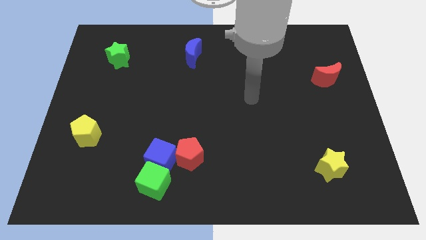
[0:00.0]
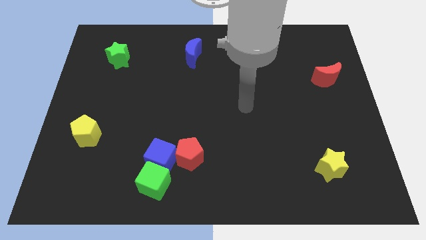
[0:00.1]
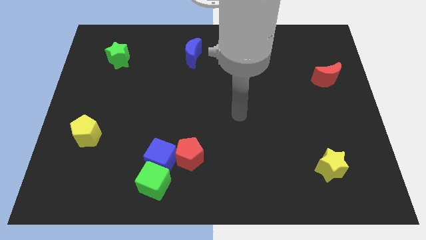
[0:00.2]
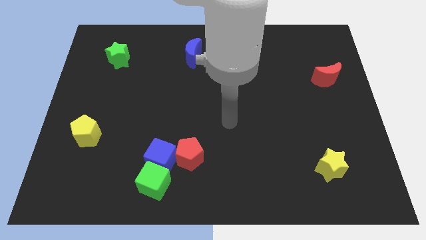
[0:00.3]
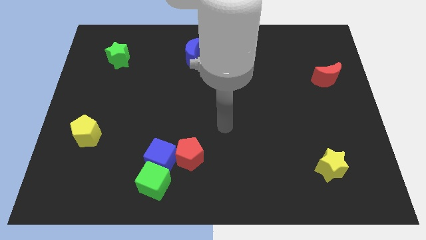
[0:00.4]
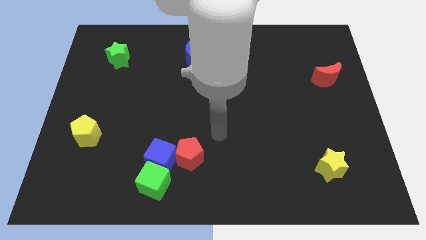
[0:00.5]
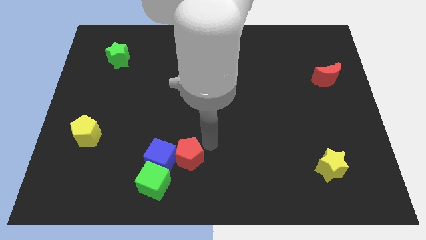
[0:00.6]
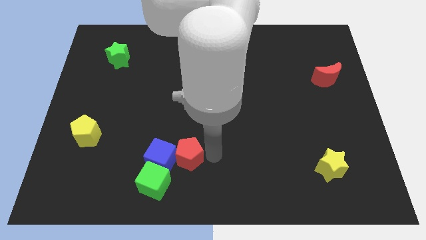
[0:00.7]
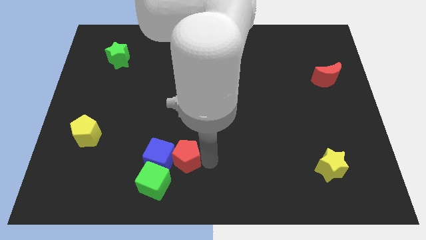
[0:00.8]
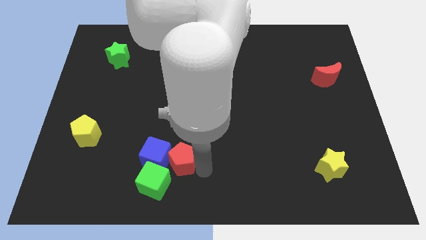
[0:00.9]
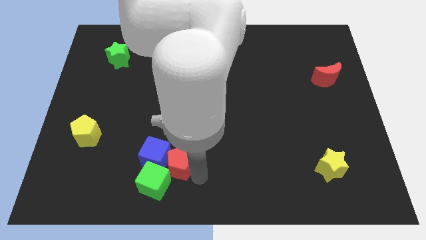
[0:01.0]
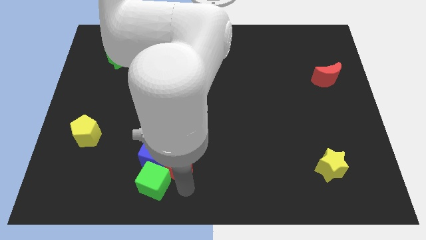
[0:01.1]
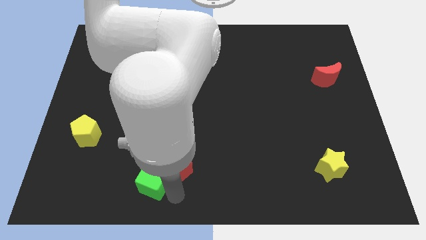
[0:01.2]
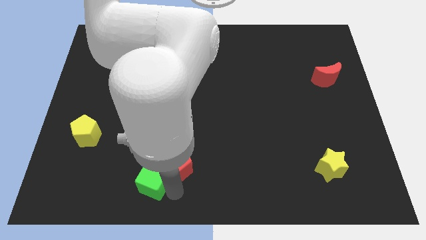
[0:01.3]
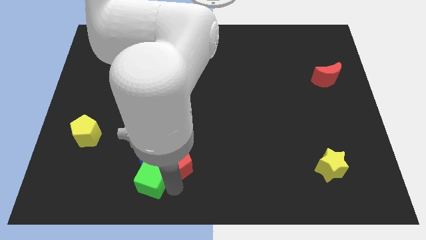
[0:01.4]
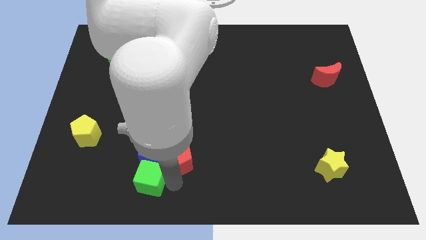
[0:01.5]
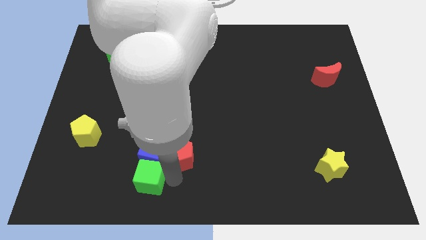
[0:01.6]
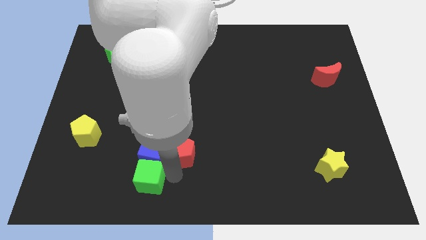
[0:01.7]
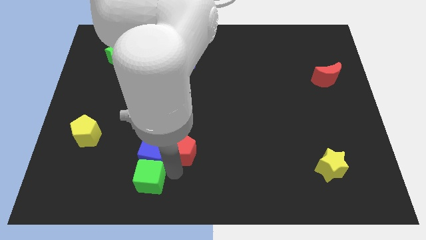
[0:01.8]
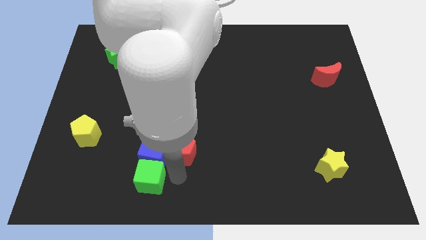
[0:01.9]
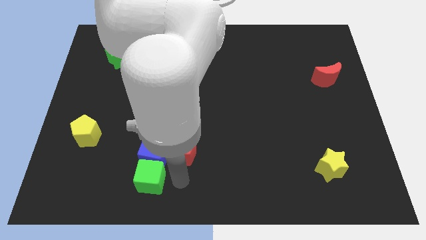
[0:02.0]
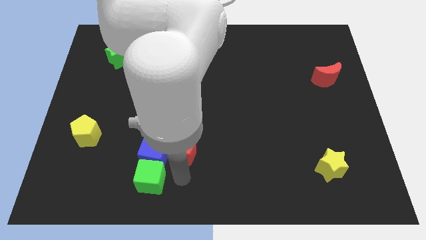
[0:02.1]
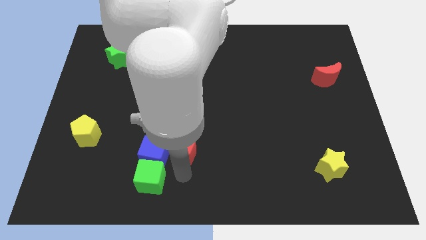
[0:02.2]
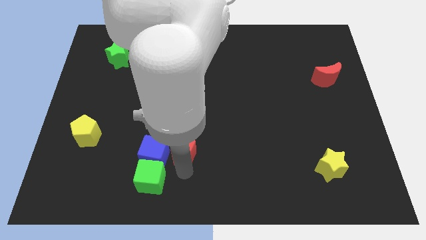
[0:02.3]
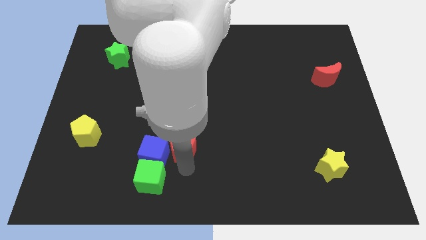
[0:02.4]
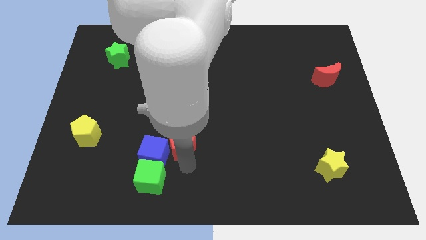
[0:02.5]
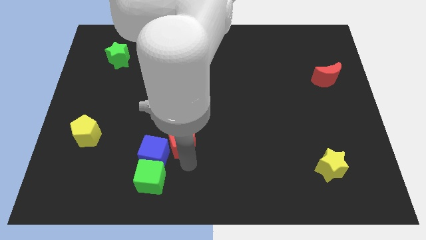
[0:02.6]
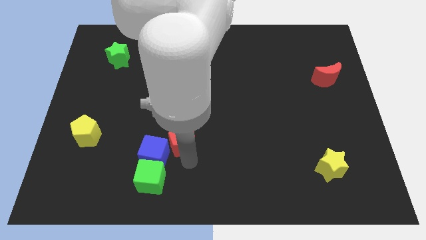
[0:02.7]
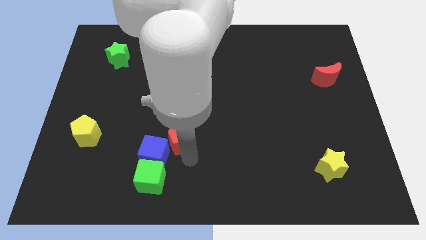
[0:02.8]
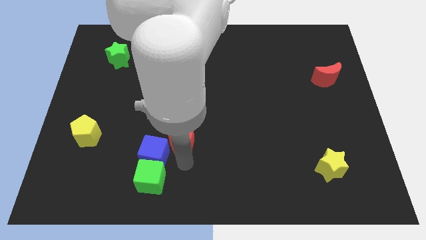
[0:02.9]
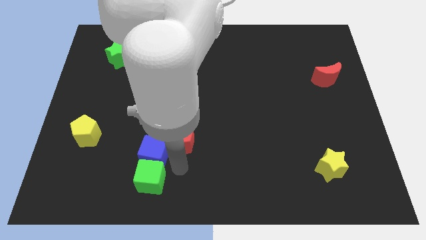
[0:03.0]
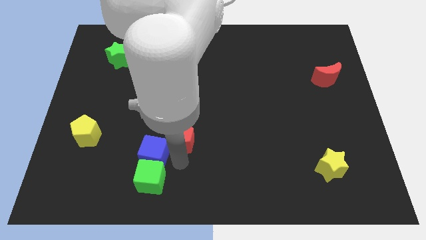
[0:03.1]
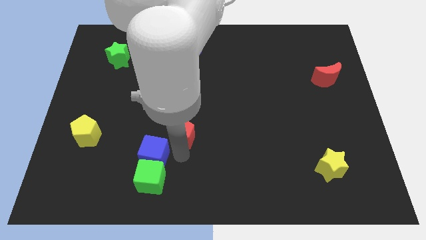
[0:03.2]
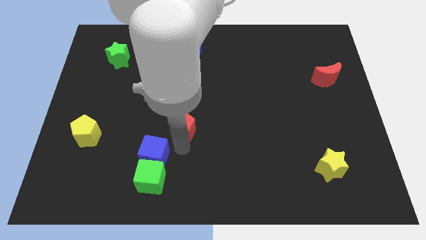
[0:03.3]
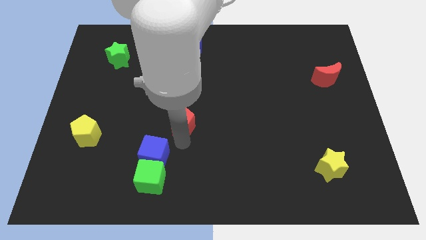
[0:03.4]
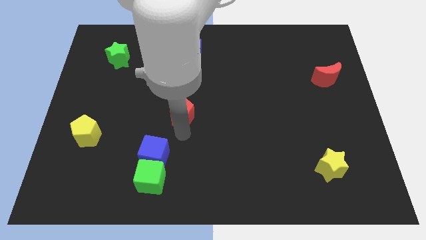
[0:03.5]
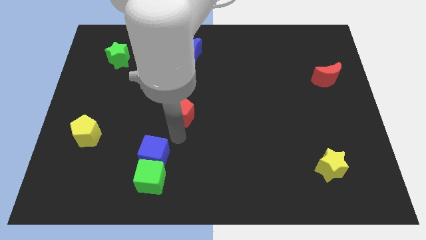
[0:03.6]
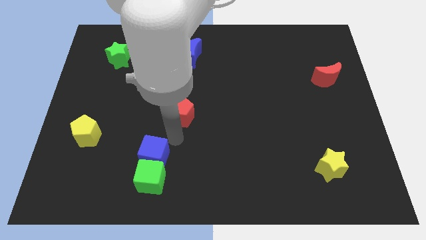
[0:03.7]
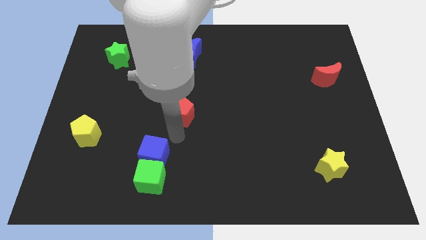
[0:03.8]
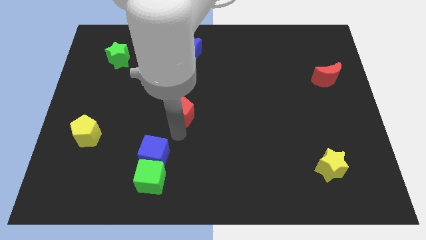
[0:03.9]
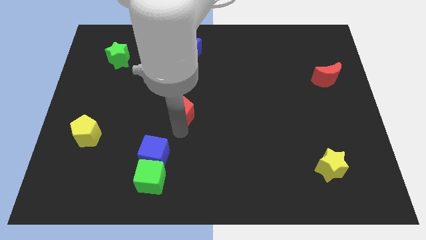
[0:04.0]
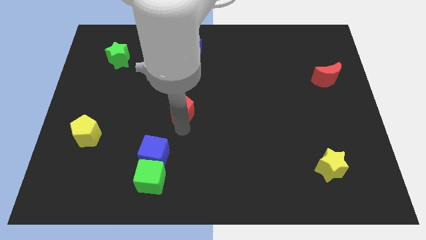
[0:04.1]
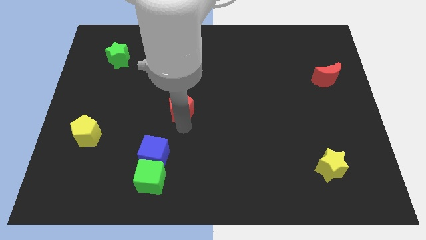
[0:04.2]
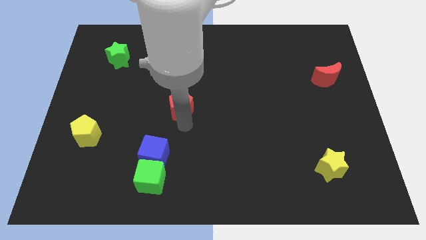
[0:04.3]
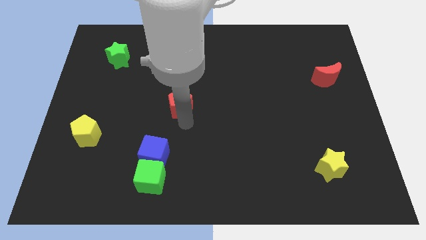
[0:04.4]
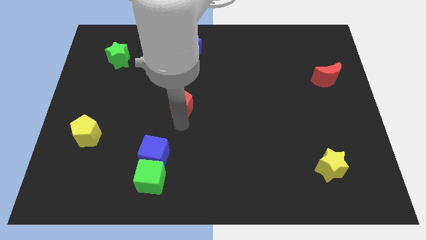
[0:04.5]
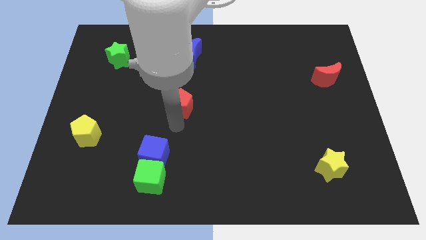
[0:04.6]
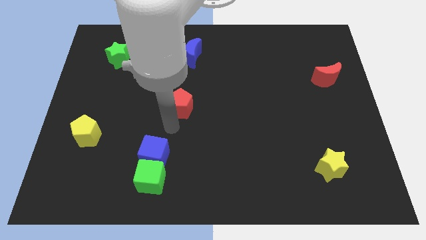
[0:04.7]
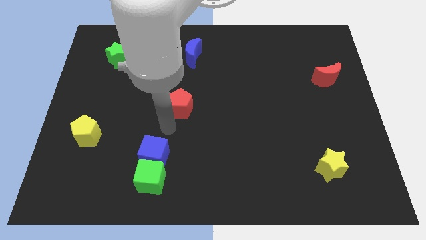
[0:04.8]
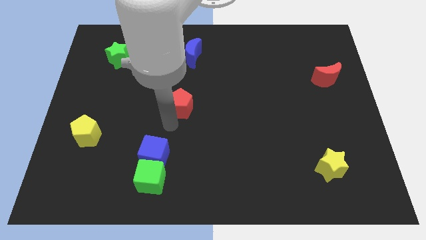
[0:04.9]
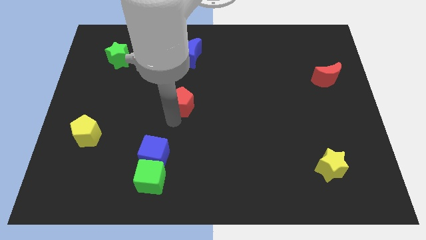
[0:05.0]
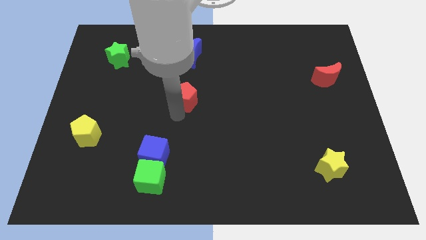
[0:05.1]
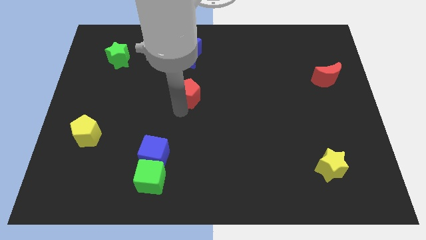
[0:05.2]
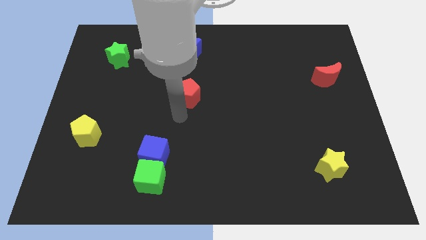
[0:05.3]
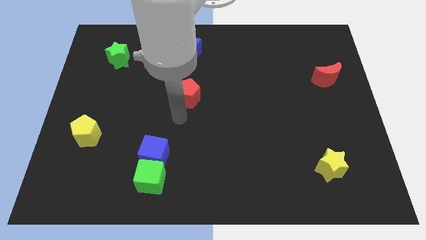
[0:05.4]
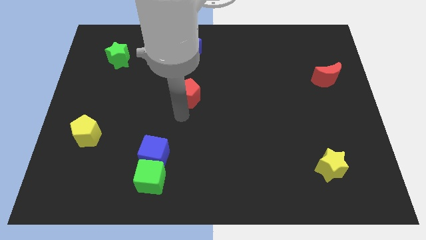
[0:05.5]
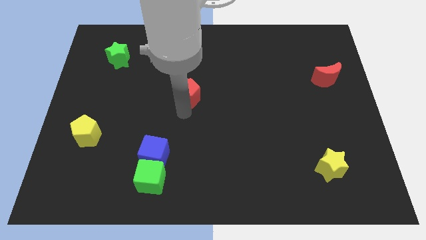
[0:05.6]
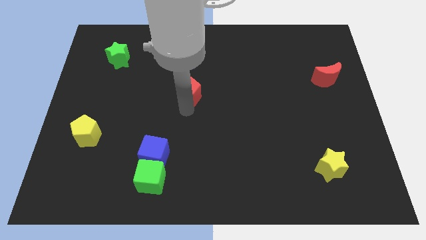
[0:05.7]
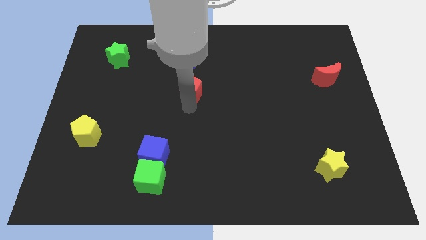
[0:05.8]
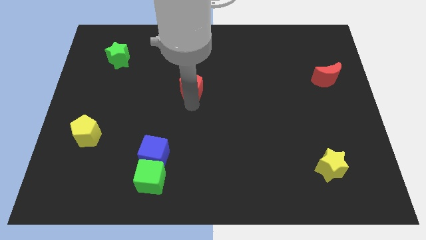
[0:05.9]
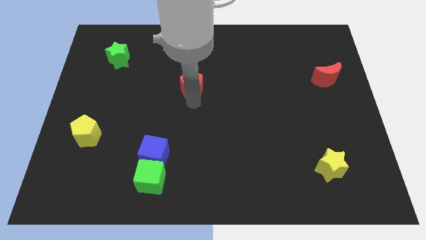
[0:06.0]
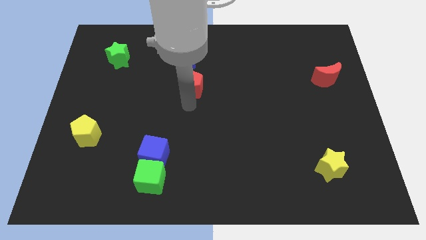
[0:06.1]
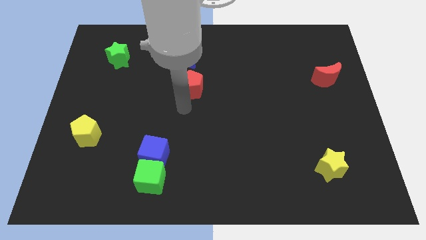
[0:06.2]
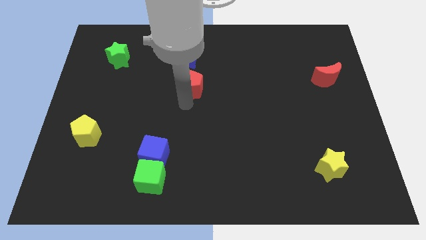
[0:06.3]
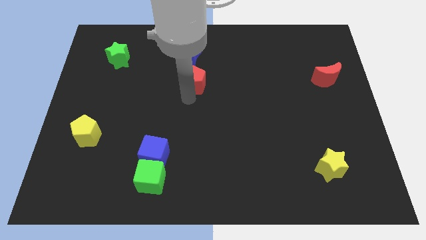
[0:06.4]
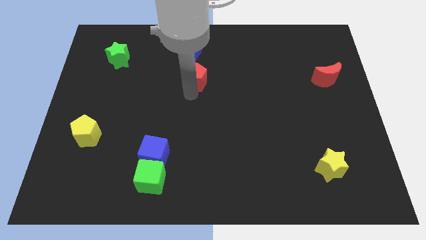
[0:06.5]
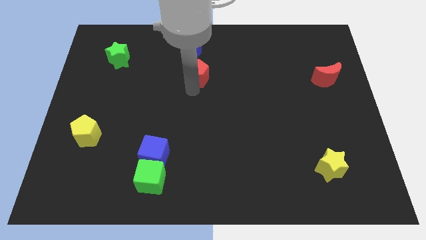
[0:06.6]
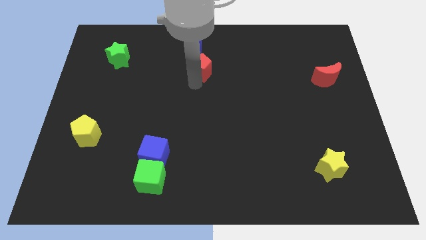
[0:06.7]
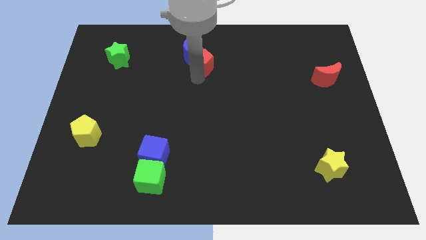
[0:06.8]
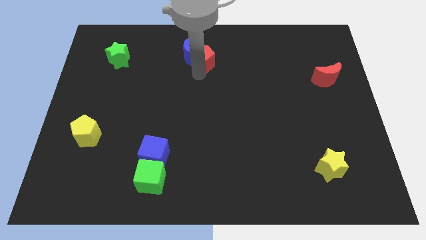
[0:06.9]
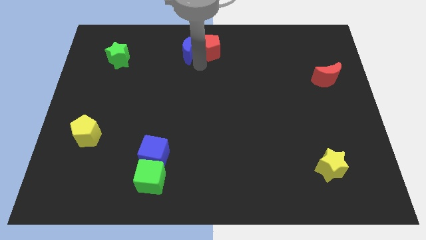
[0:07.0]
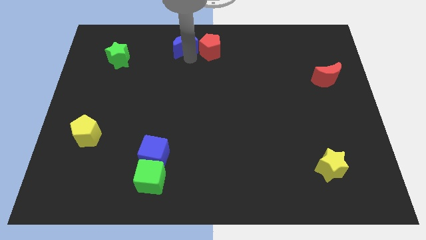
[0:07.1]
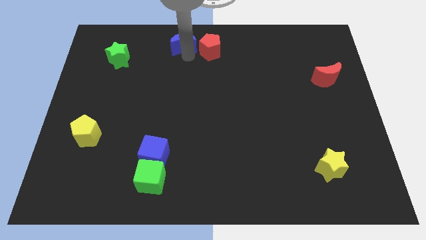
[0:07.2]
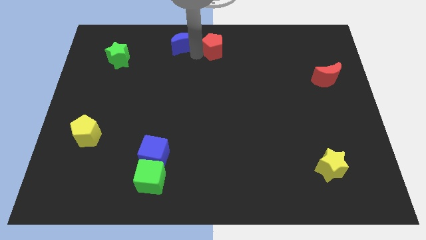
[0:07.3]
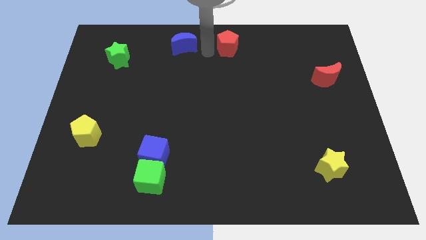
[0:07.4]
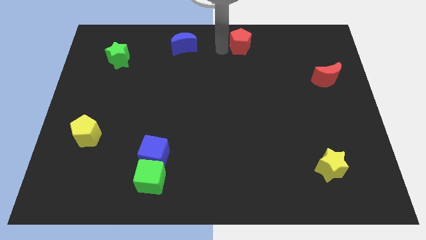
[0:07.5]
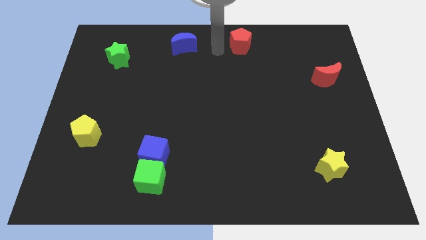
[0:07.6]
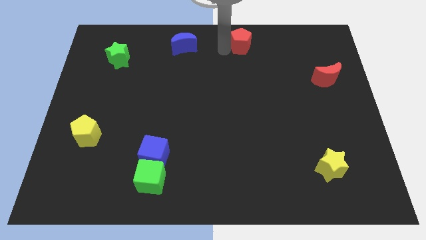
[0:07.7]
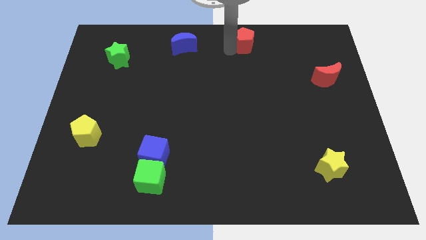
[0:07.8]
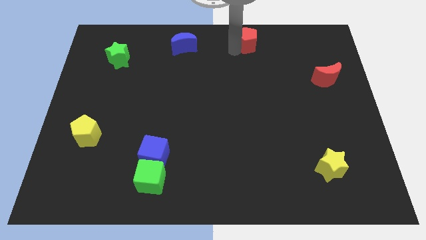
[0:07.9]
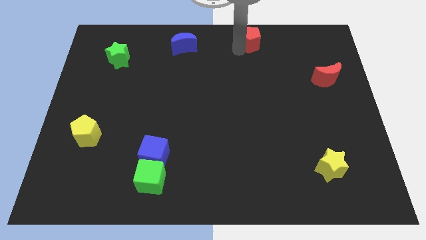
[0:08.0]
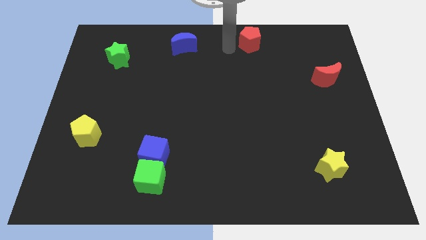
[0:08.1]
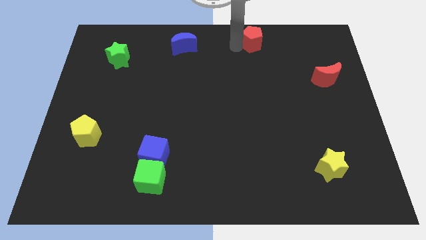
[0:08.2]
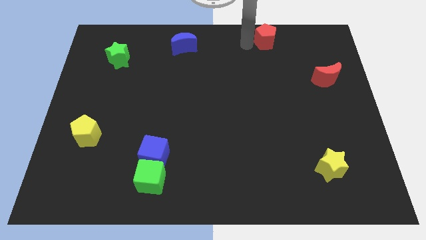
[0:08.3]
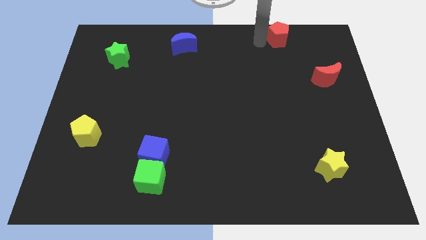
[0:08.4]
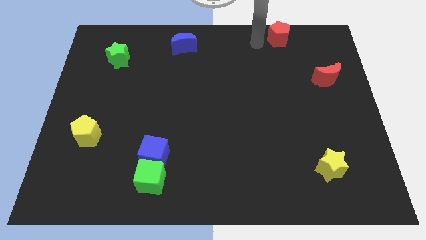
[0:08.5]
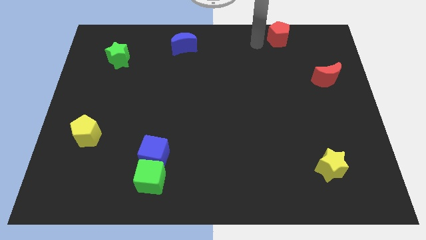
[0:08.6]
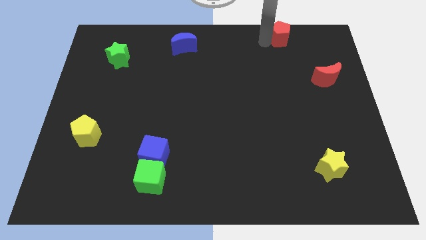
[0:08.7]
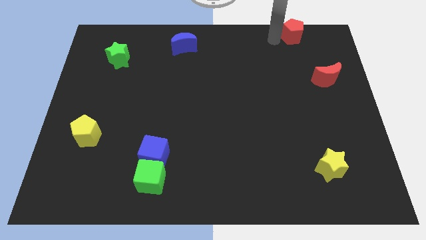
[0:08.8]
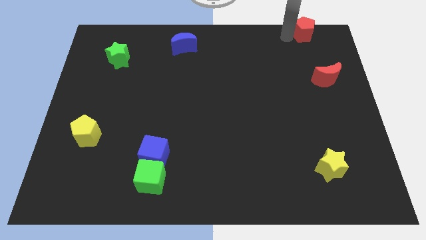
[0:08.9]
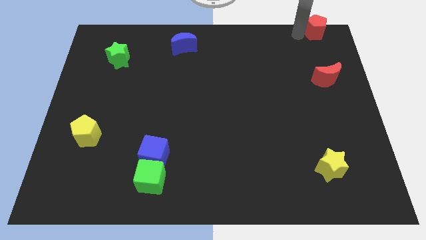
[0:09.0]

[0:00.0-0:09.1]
push the red pentagon to the top right of the board
